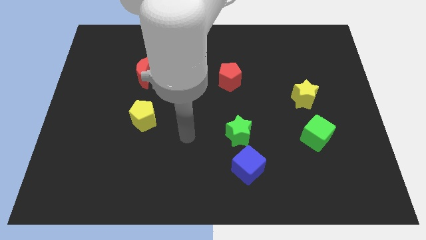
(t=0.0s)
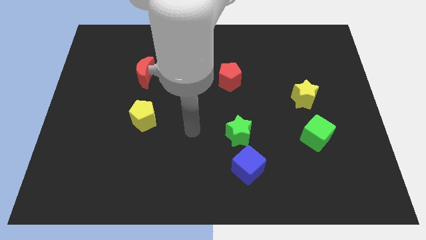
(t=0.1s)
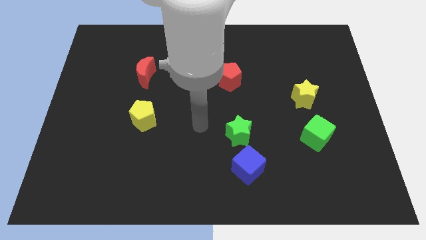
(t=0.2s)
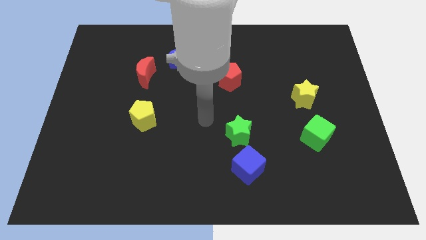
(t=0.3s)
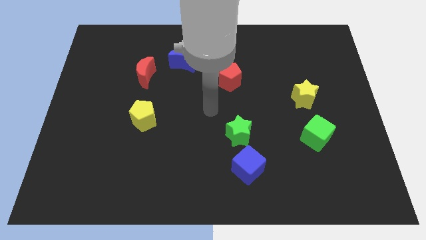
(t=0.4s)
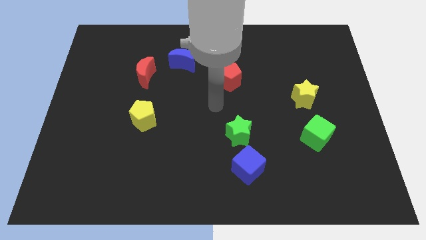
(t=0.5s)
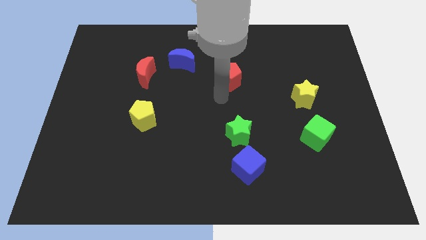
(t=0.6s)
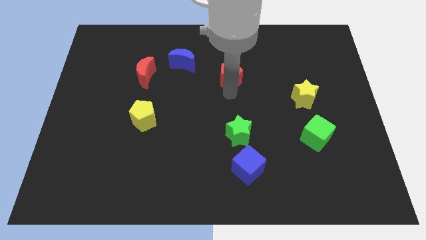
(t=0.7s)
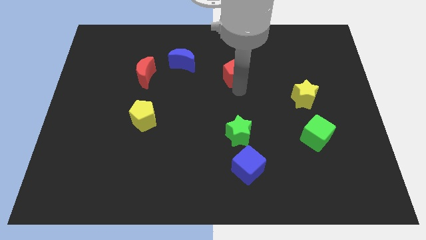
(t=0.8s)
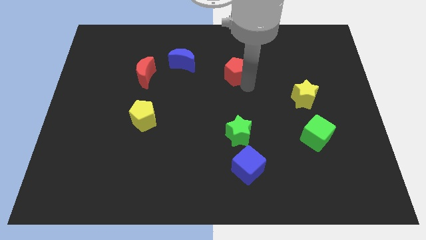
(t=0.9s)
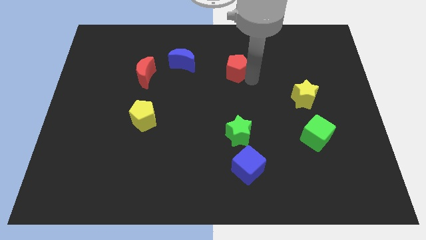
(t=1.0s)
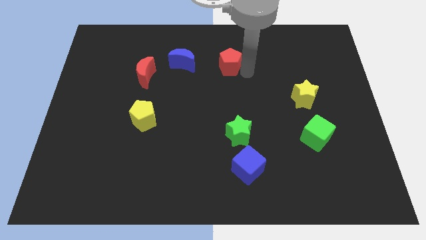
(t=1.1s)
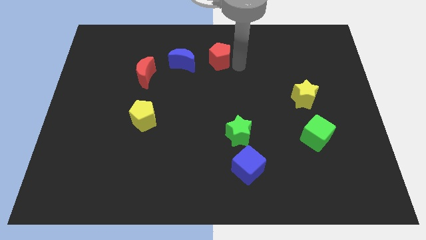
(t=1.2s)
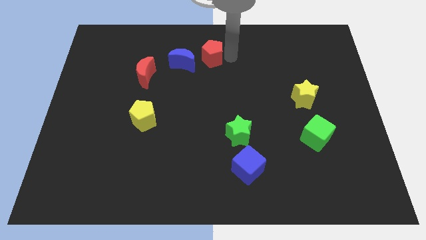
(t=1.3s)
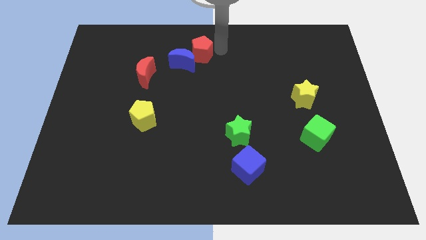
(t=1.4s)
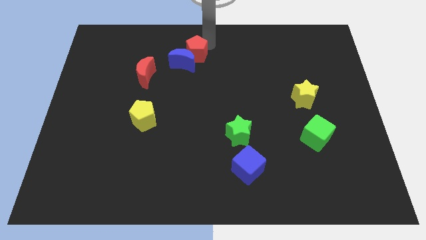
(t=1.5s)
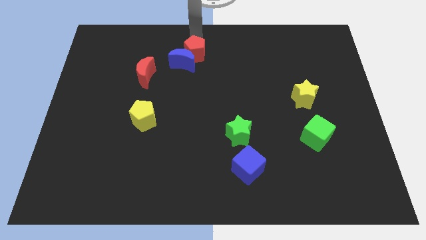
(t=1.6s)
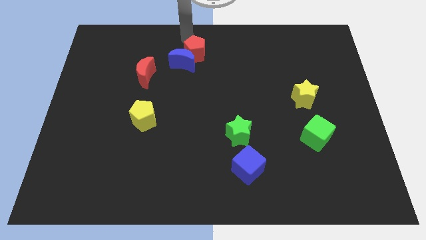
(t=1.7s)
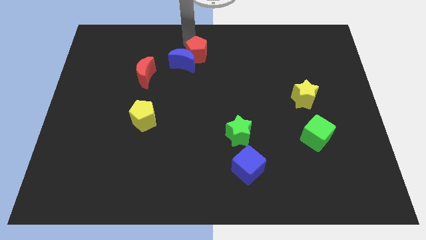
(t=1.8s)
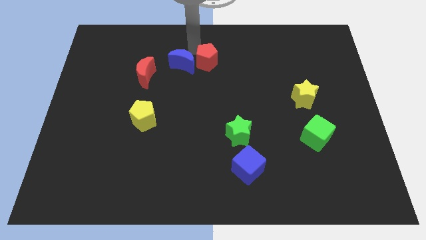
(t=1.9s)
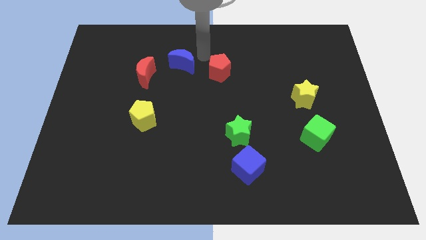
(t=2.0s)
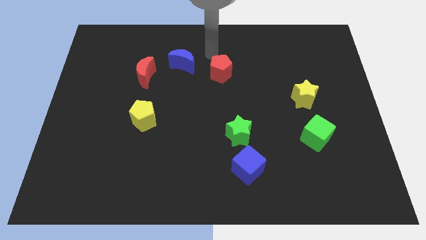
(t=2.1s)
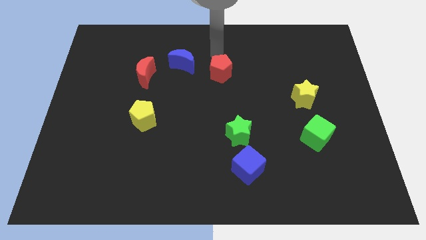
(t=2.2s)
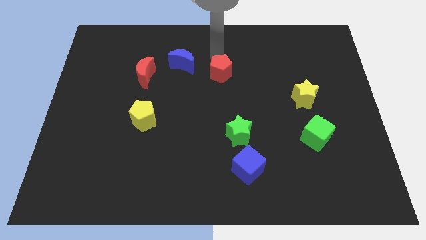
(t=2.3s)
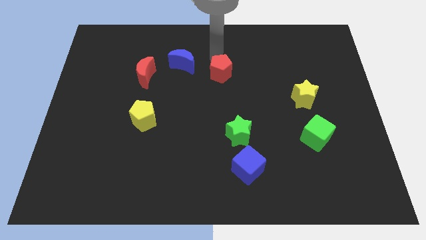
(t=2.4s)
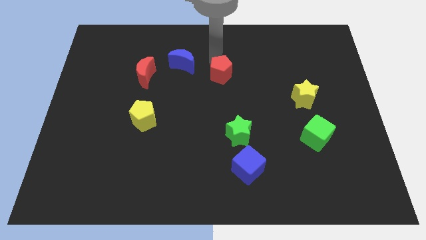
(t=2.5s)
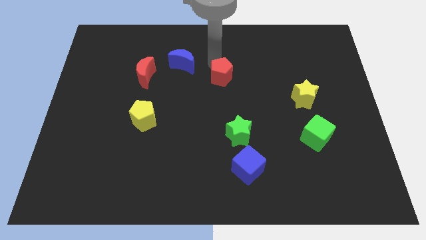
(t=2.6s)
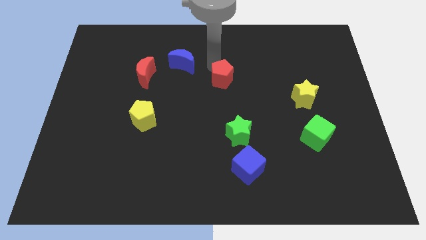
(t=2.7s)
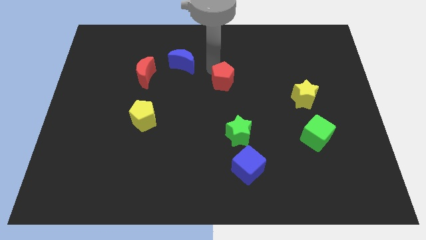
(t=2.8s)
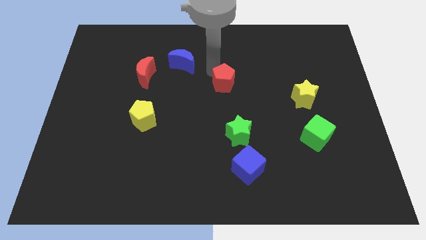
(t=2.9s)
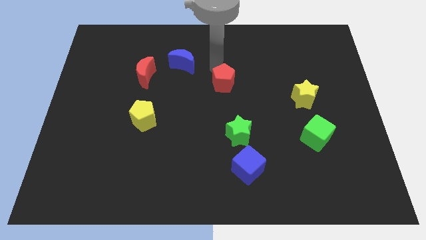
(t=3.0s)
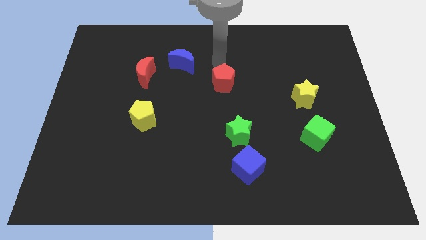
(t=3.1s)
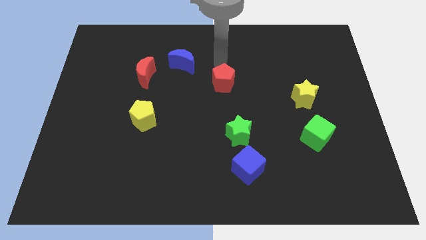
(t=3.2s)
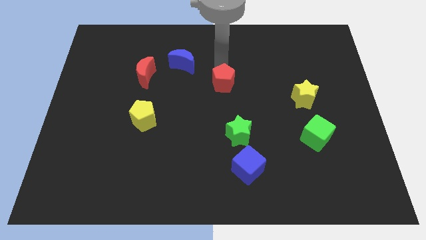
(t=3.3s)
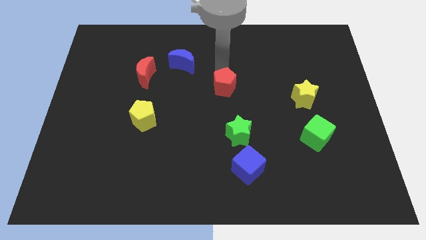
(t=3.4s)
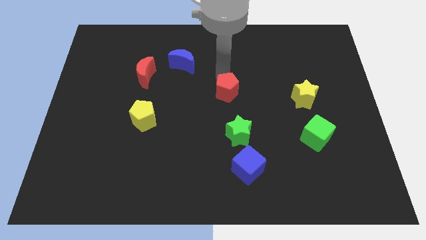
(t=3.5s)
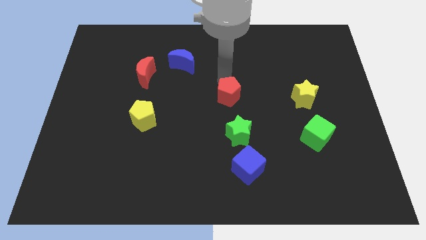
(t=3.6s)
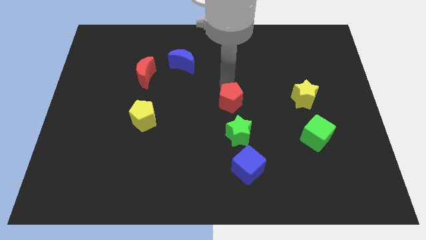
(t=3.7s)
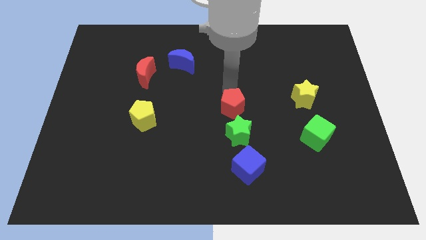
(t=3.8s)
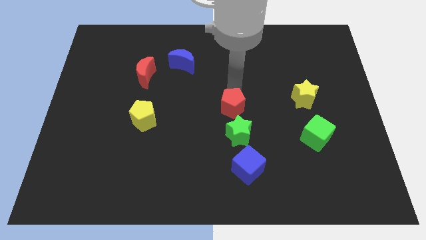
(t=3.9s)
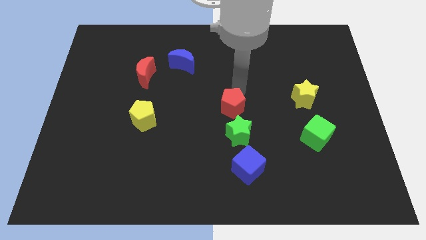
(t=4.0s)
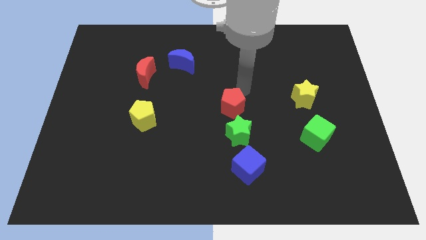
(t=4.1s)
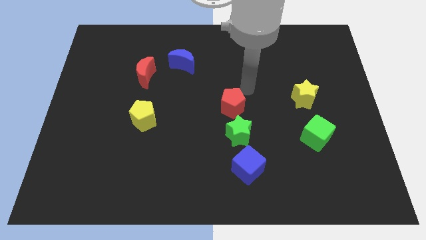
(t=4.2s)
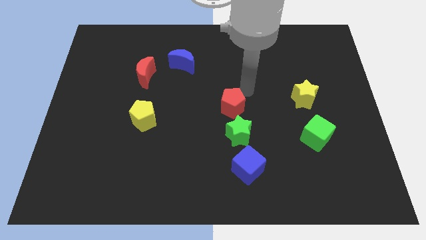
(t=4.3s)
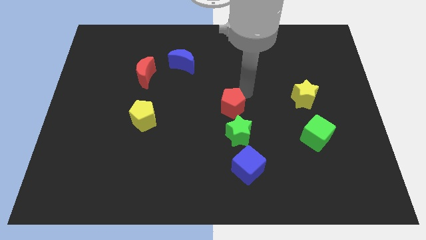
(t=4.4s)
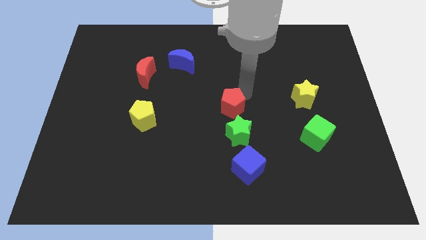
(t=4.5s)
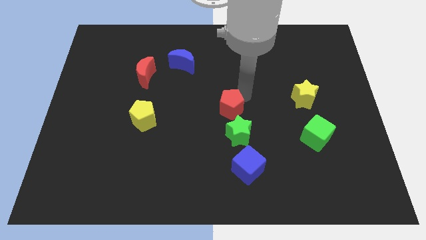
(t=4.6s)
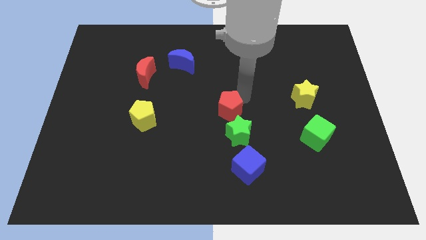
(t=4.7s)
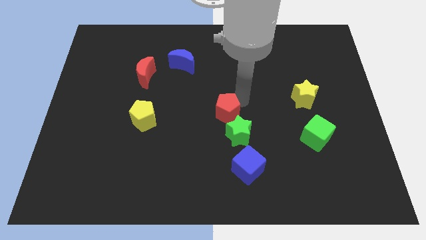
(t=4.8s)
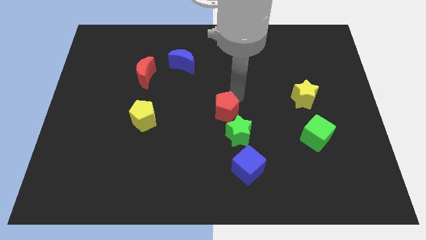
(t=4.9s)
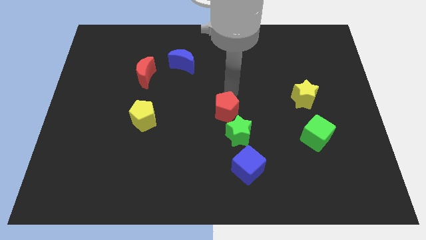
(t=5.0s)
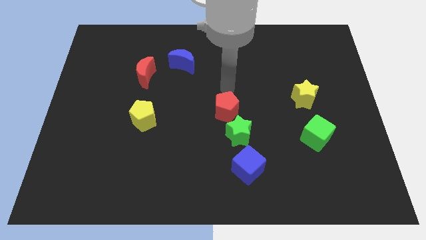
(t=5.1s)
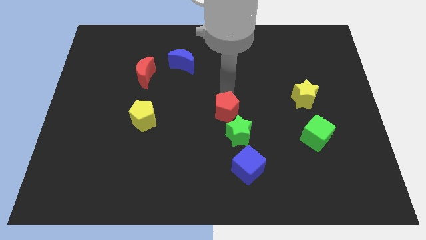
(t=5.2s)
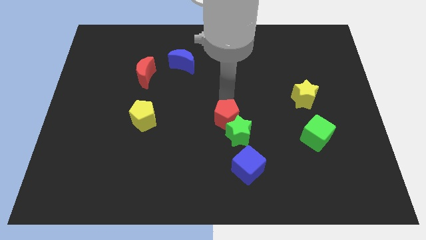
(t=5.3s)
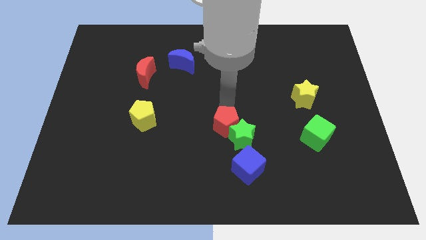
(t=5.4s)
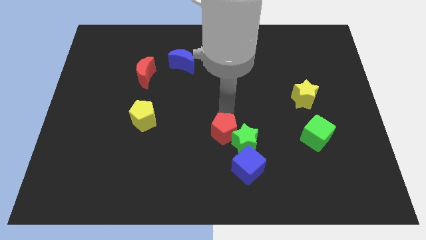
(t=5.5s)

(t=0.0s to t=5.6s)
move the red pentagon to the top left of the blue cube
